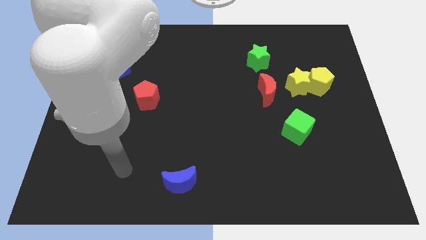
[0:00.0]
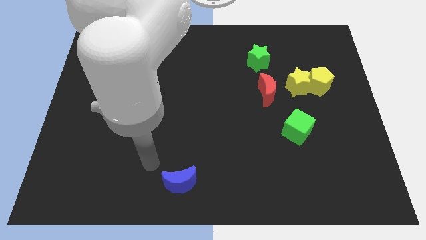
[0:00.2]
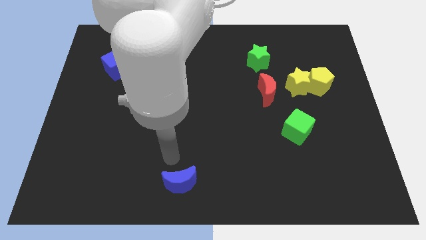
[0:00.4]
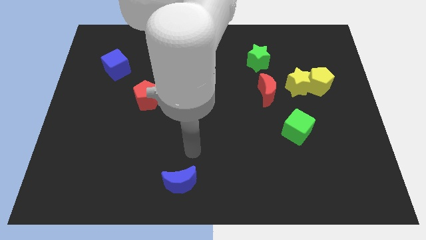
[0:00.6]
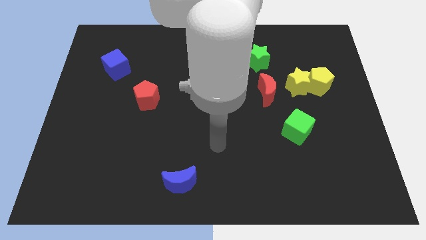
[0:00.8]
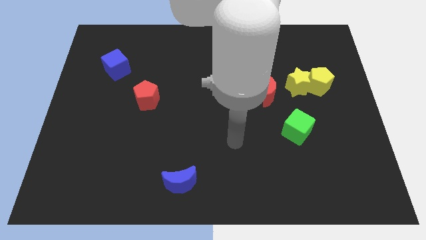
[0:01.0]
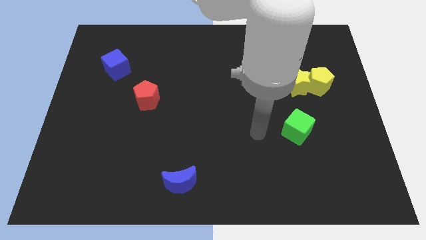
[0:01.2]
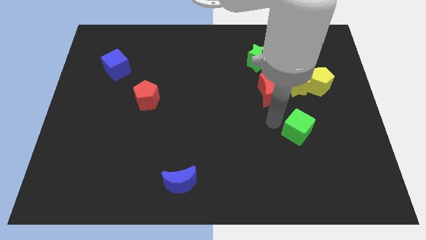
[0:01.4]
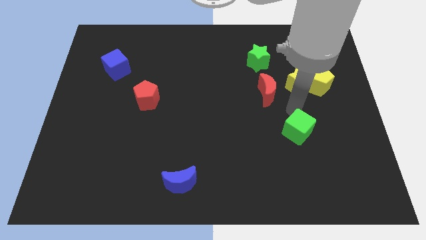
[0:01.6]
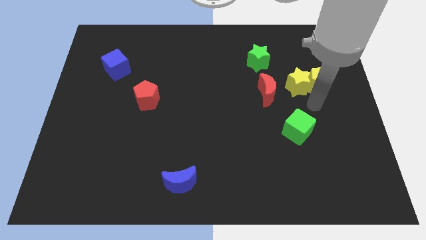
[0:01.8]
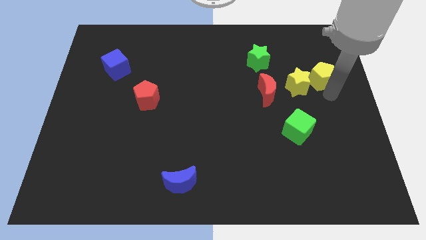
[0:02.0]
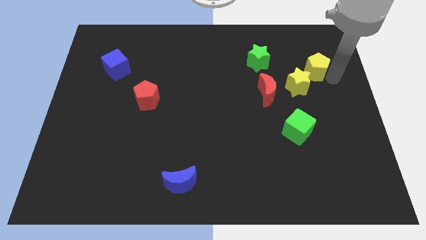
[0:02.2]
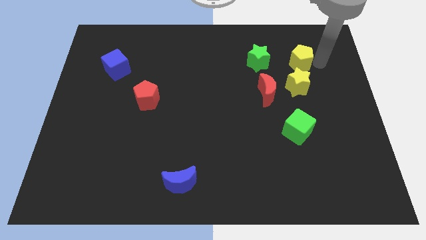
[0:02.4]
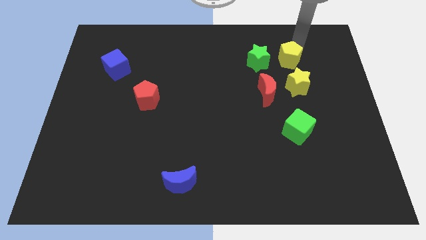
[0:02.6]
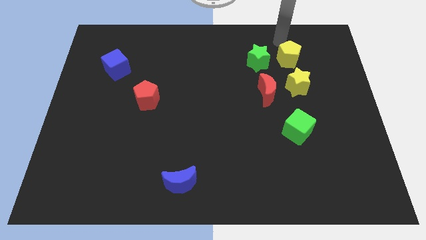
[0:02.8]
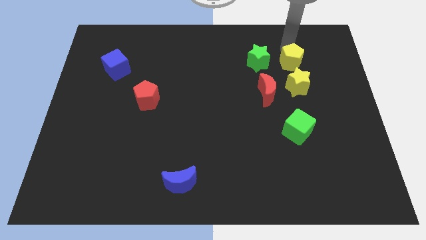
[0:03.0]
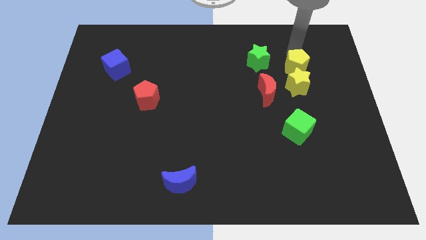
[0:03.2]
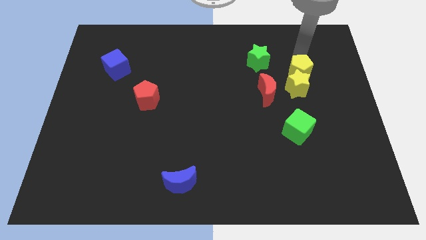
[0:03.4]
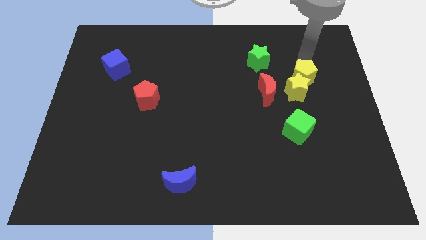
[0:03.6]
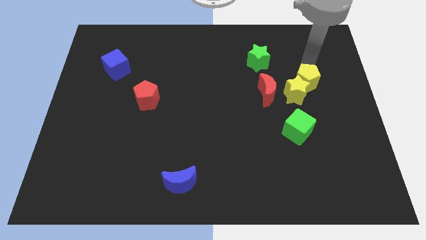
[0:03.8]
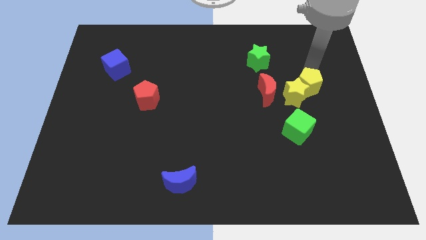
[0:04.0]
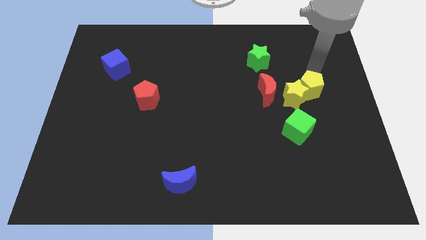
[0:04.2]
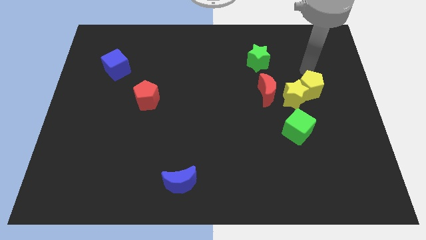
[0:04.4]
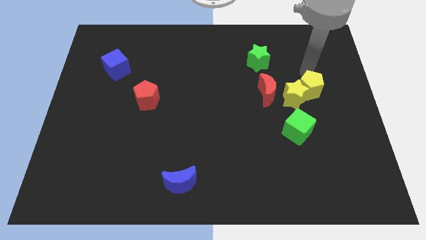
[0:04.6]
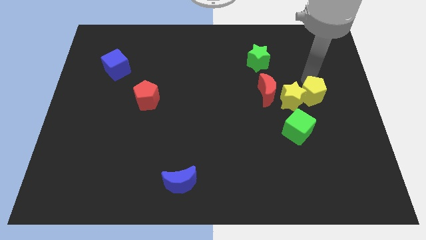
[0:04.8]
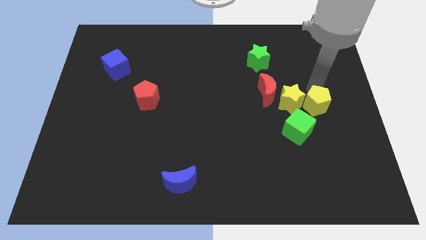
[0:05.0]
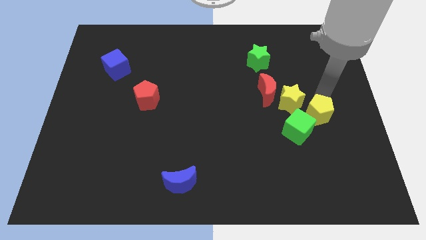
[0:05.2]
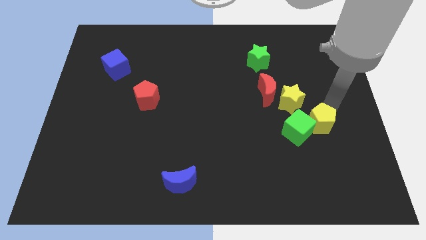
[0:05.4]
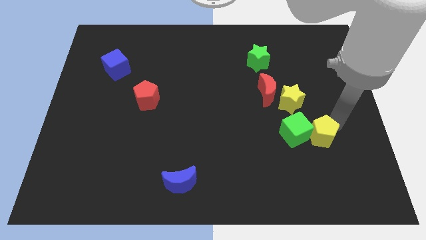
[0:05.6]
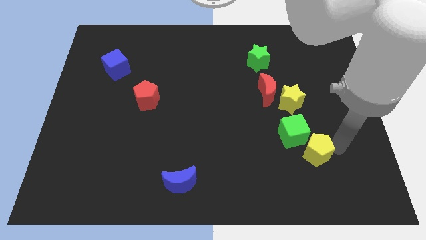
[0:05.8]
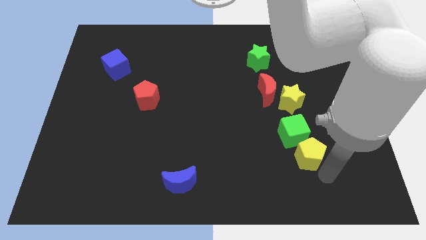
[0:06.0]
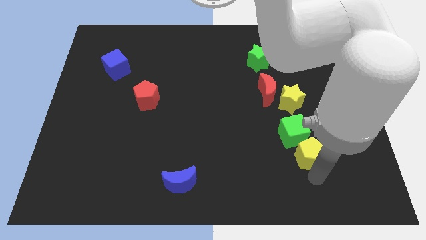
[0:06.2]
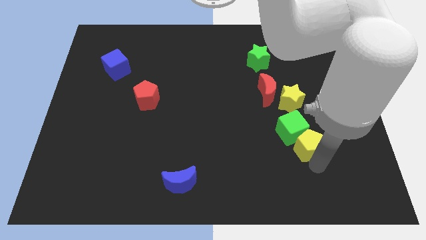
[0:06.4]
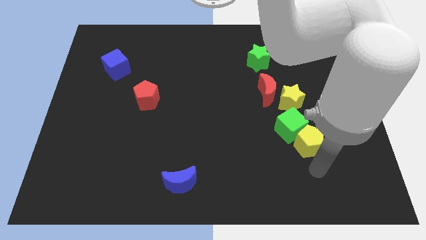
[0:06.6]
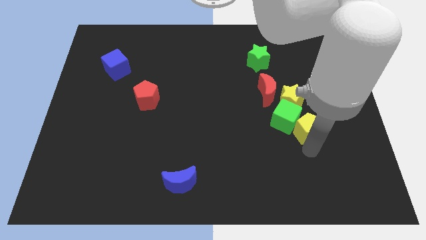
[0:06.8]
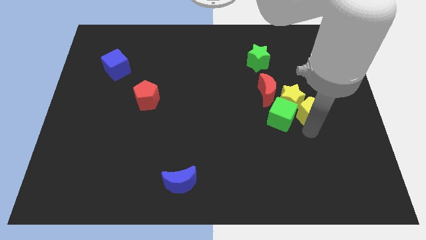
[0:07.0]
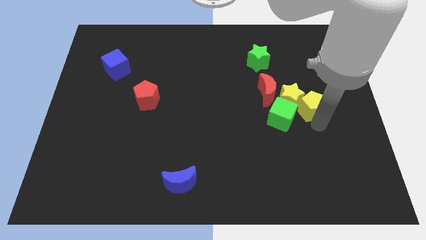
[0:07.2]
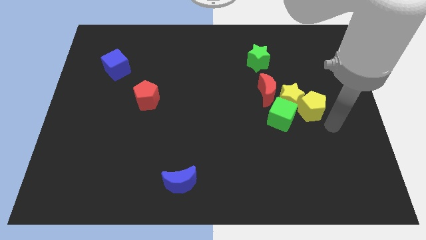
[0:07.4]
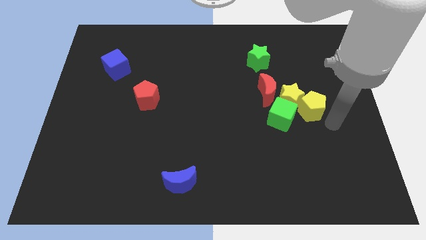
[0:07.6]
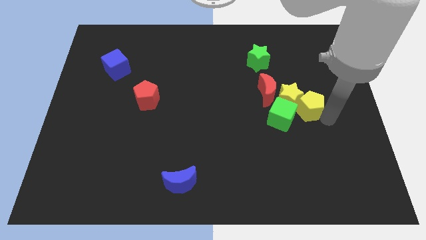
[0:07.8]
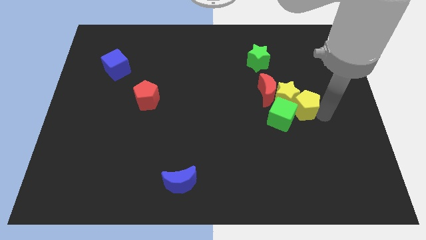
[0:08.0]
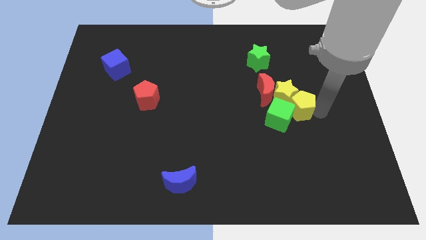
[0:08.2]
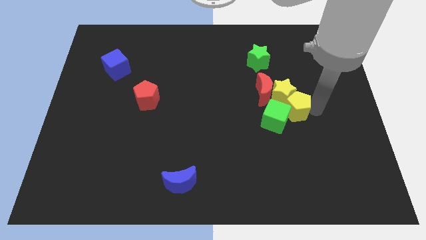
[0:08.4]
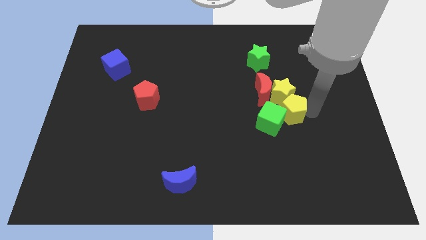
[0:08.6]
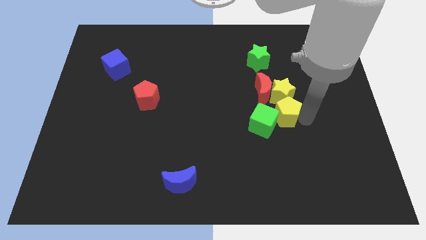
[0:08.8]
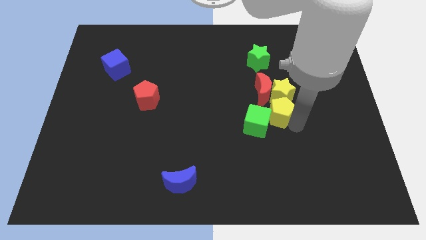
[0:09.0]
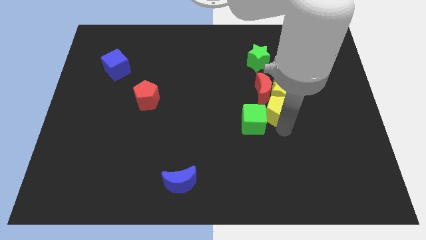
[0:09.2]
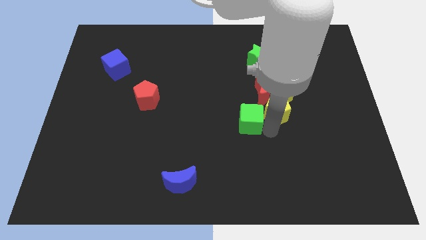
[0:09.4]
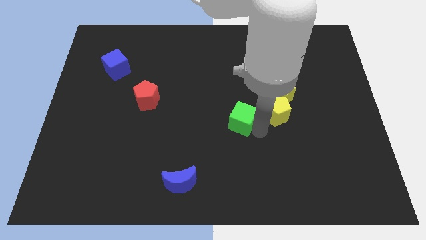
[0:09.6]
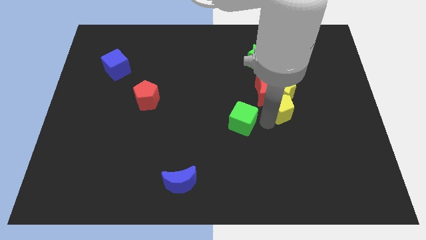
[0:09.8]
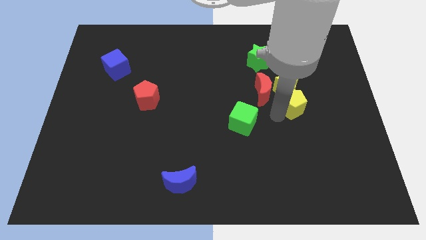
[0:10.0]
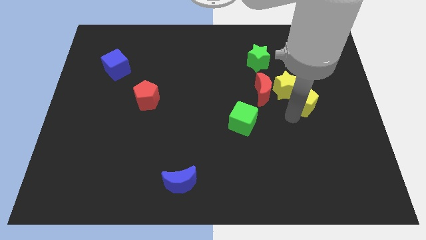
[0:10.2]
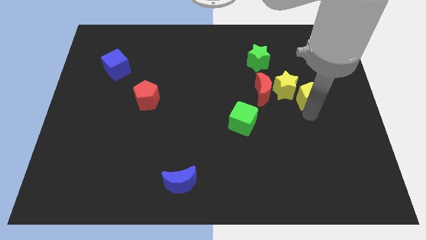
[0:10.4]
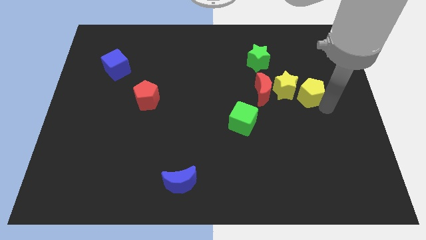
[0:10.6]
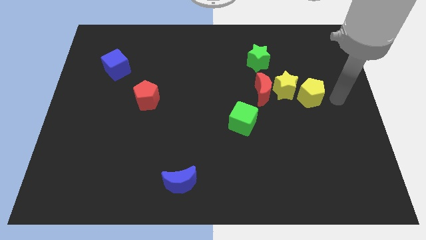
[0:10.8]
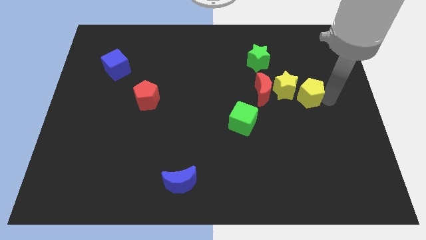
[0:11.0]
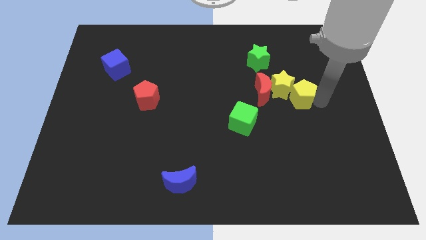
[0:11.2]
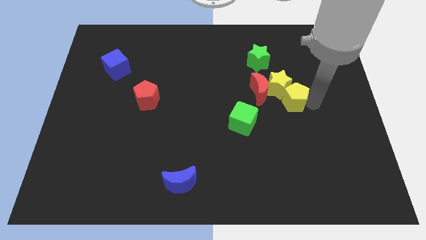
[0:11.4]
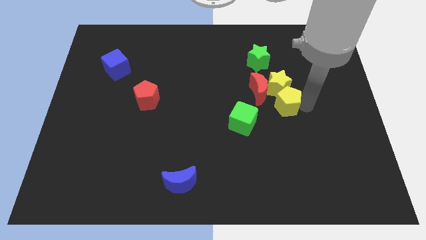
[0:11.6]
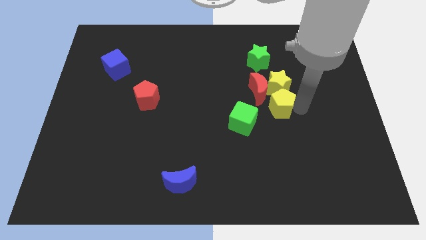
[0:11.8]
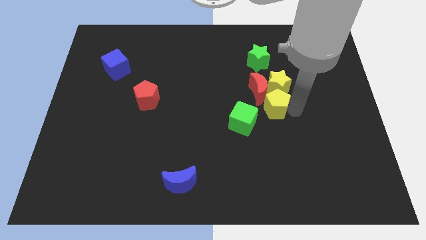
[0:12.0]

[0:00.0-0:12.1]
push the yellow pentagon next to the red moon
